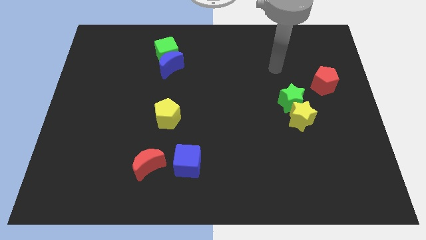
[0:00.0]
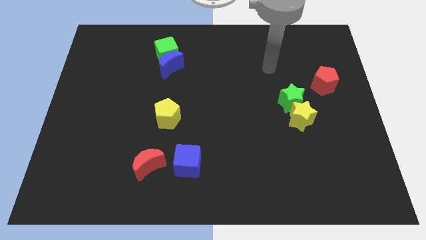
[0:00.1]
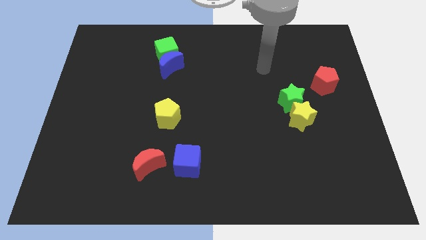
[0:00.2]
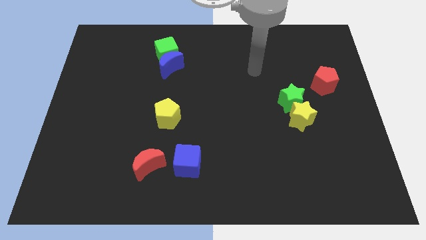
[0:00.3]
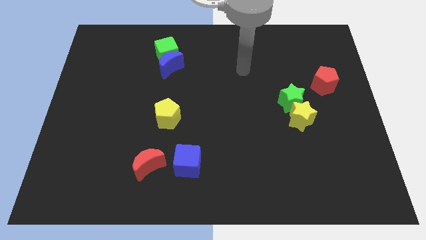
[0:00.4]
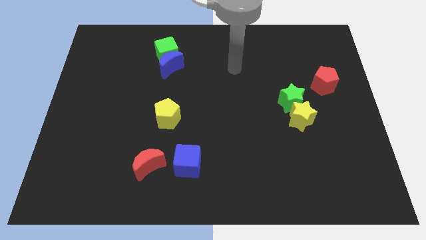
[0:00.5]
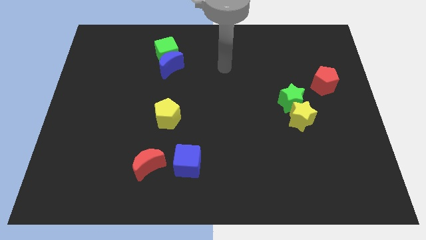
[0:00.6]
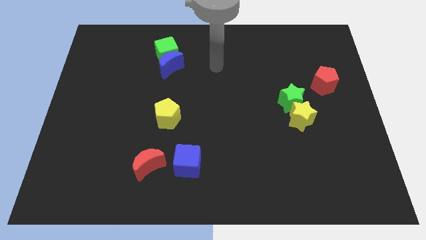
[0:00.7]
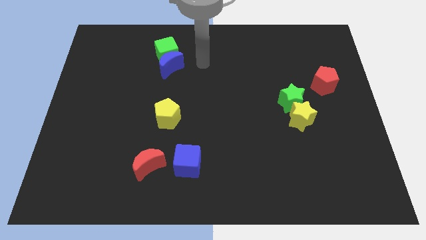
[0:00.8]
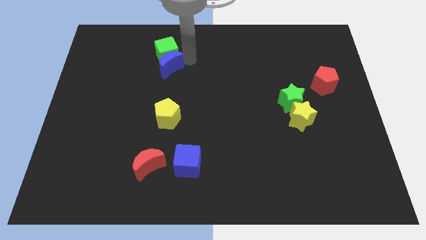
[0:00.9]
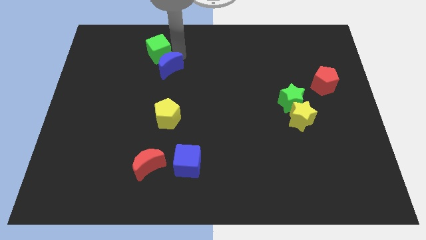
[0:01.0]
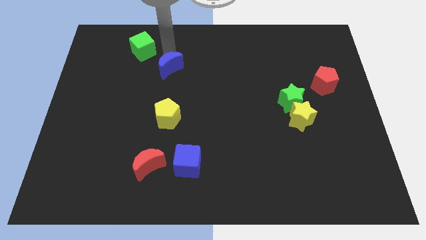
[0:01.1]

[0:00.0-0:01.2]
separate the blue moon from the green cube

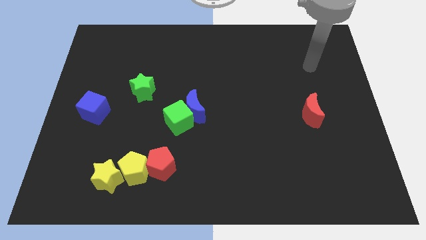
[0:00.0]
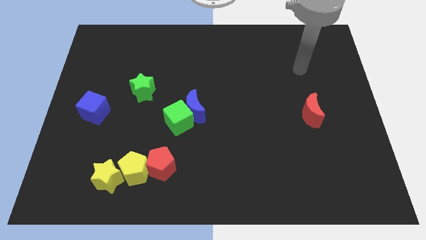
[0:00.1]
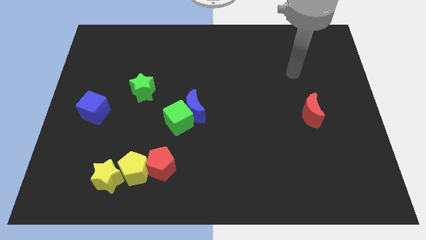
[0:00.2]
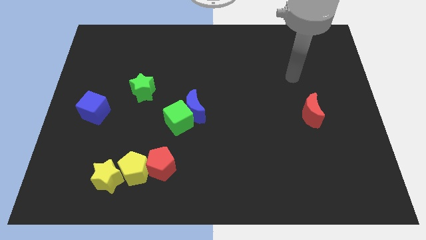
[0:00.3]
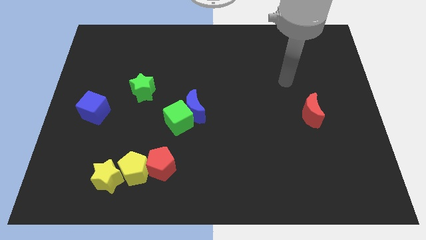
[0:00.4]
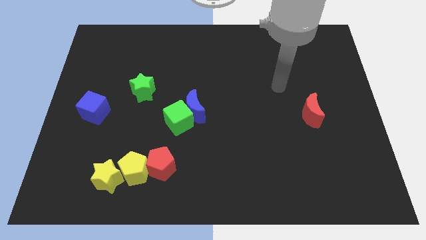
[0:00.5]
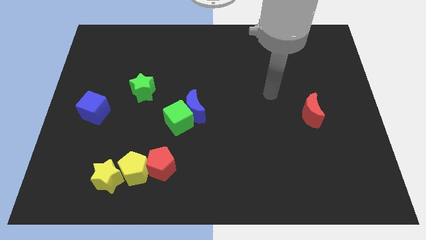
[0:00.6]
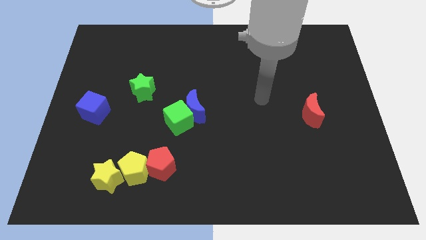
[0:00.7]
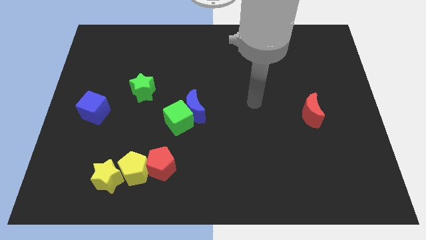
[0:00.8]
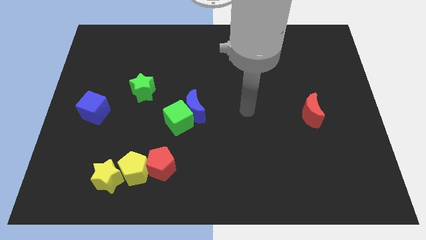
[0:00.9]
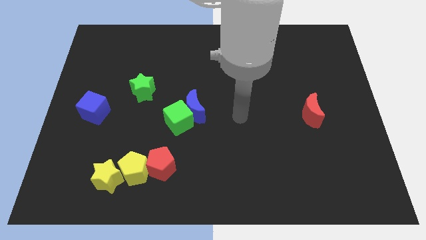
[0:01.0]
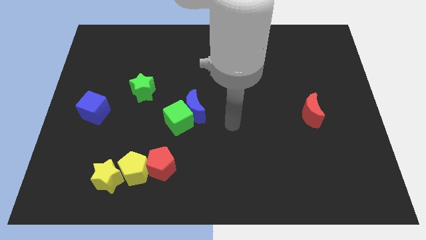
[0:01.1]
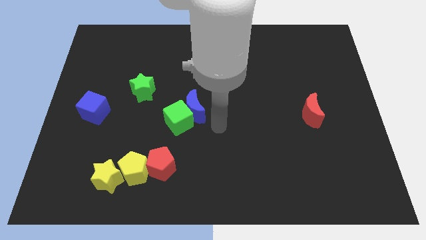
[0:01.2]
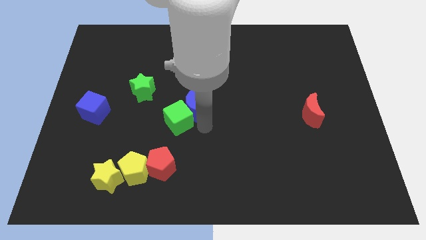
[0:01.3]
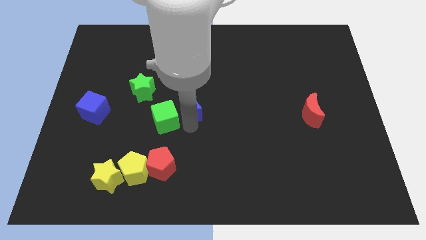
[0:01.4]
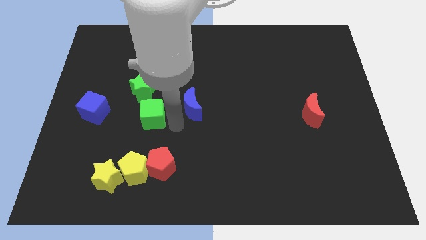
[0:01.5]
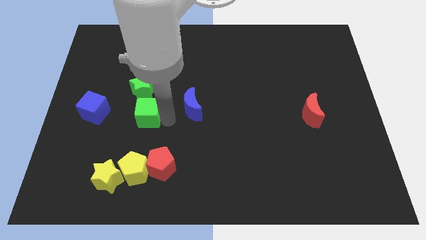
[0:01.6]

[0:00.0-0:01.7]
pull the blue moon apart from the green cube

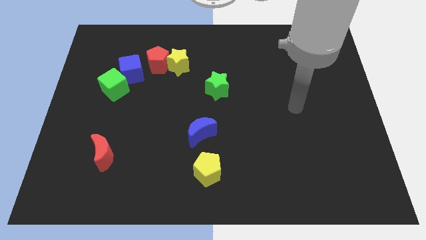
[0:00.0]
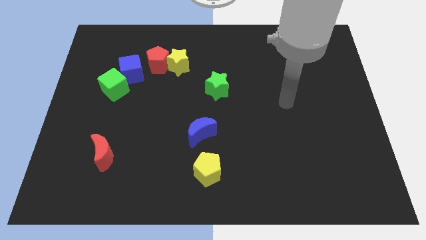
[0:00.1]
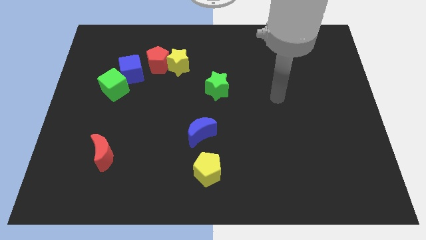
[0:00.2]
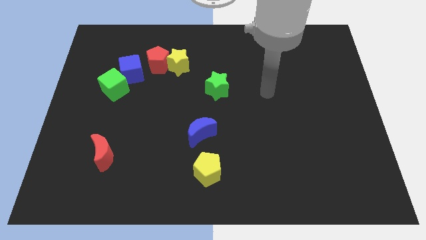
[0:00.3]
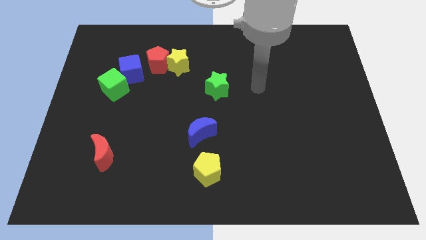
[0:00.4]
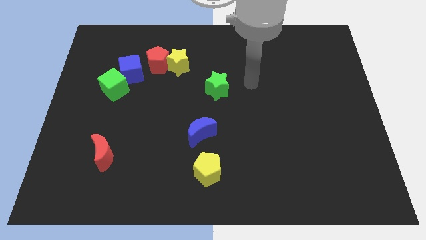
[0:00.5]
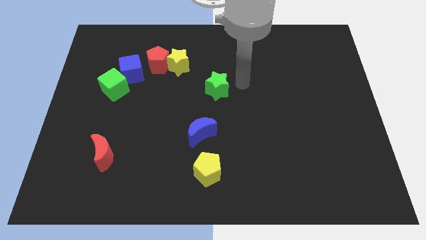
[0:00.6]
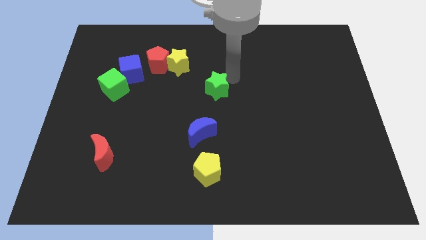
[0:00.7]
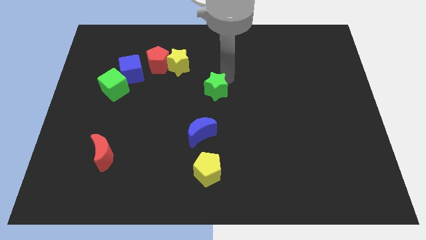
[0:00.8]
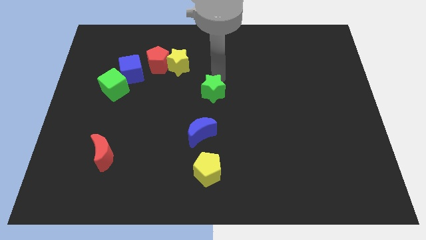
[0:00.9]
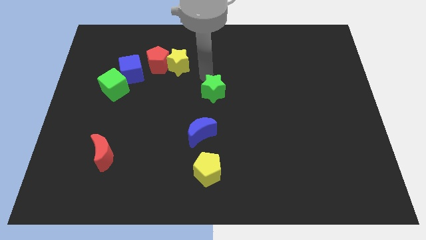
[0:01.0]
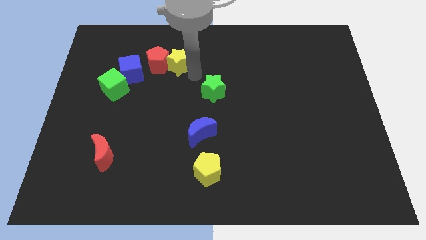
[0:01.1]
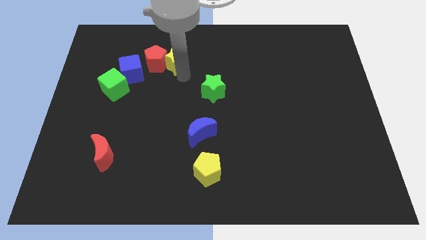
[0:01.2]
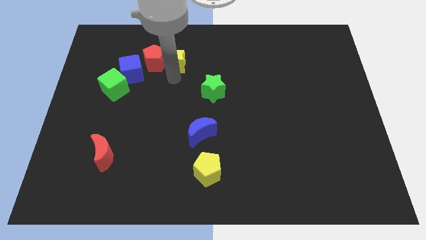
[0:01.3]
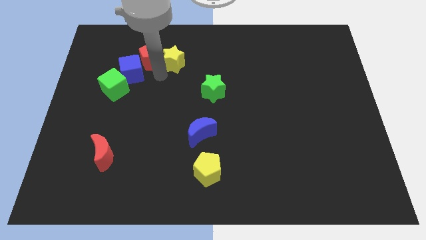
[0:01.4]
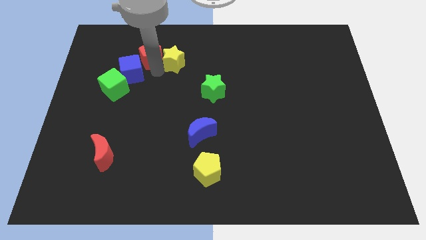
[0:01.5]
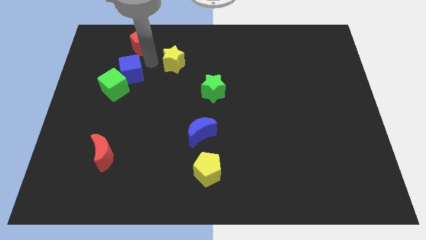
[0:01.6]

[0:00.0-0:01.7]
pull the yellow star apart from the red pentagon

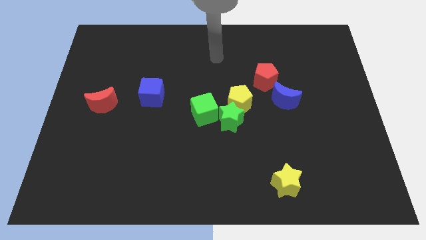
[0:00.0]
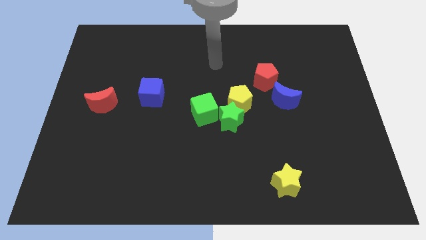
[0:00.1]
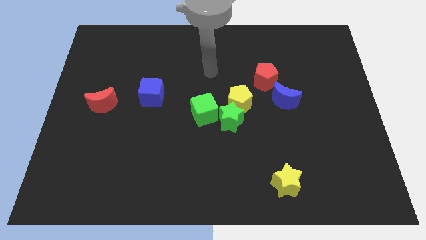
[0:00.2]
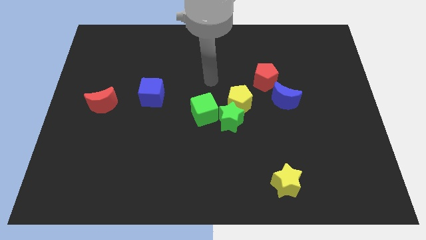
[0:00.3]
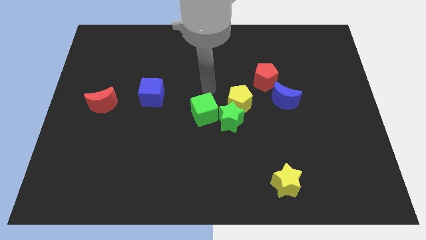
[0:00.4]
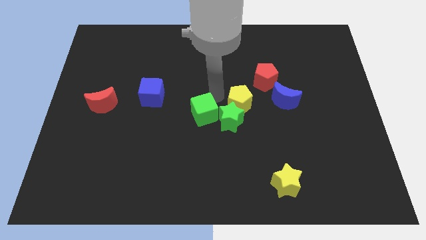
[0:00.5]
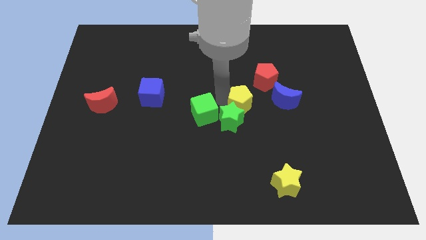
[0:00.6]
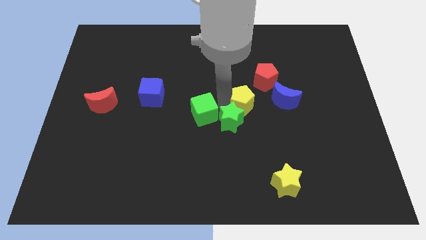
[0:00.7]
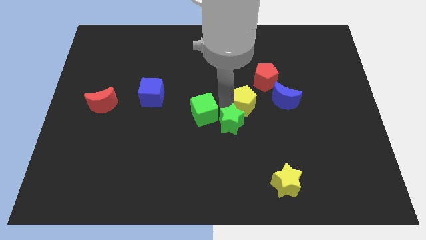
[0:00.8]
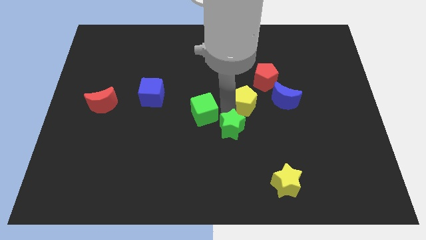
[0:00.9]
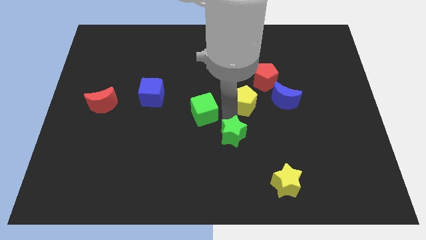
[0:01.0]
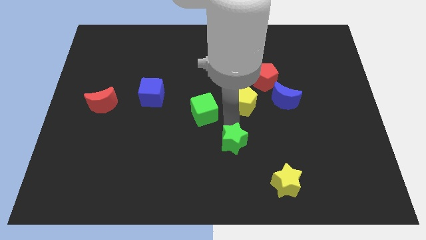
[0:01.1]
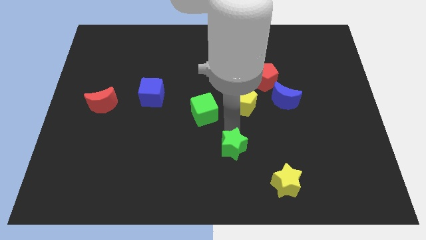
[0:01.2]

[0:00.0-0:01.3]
pull the green star apart from the yellow pentagon and green cube

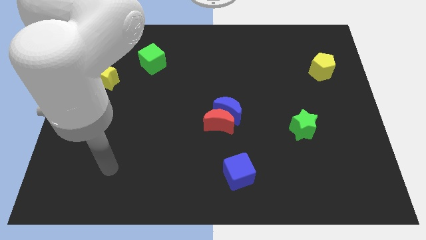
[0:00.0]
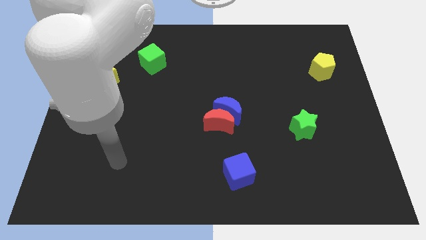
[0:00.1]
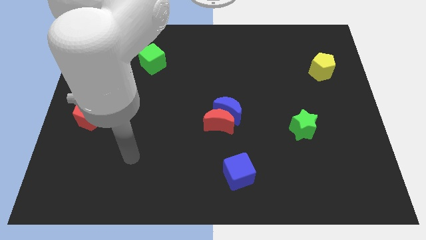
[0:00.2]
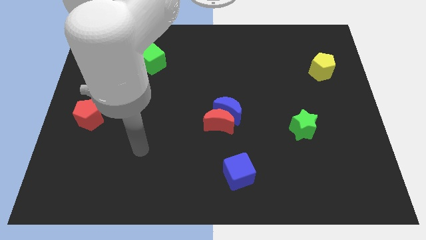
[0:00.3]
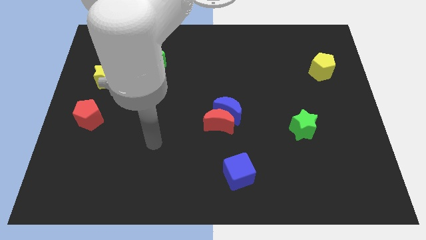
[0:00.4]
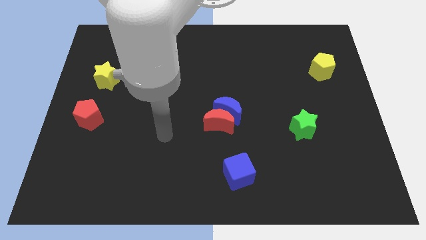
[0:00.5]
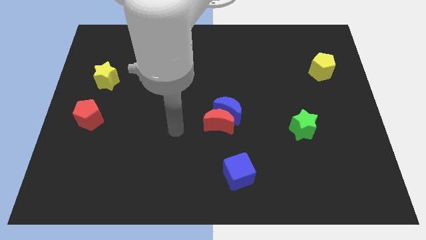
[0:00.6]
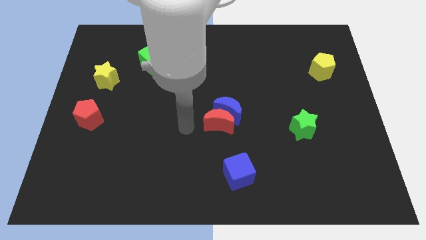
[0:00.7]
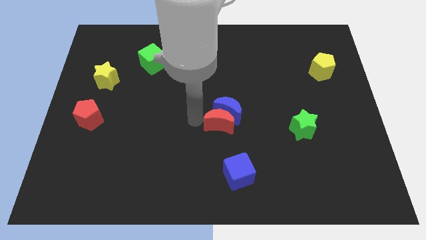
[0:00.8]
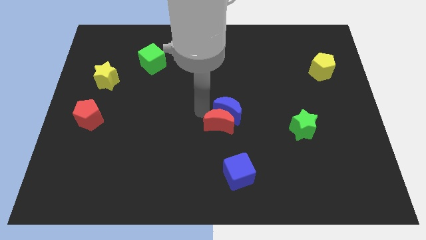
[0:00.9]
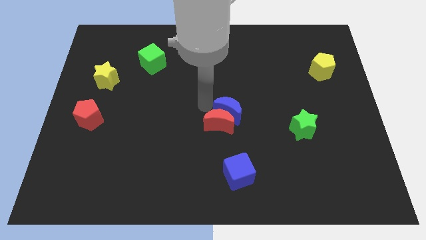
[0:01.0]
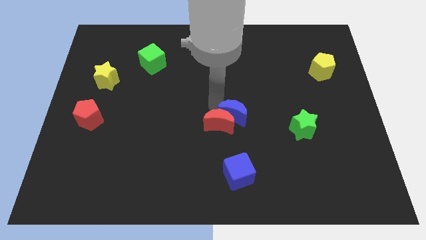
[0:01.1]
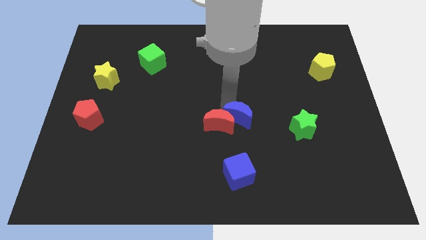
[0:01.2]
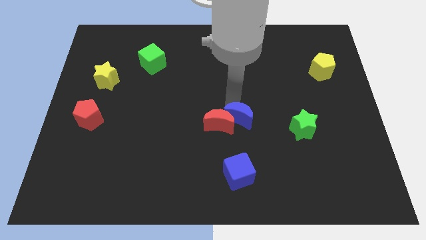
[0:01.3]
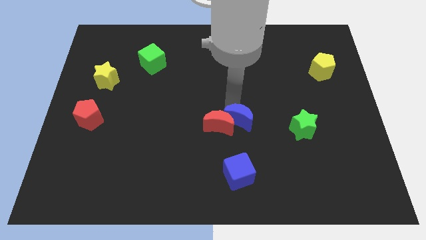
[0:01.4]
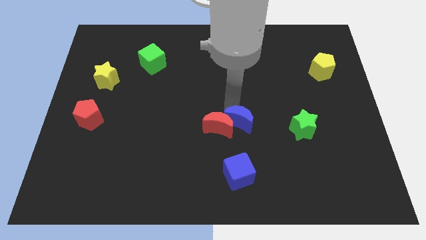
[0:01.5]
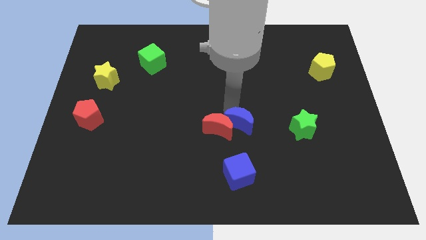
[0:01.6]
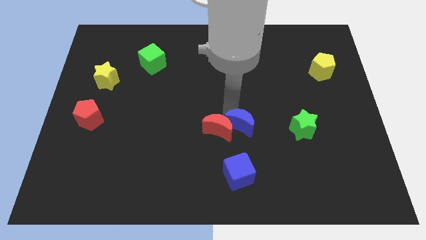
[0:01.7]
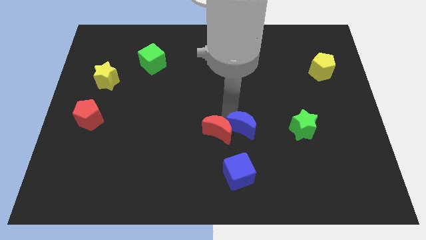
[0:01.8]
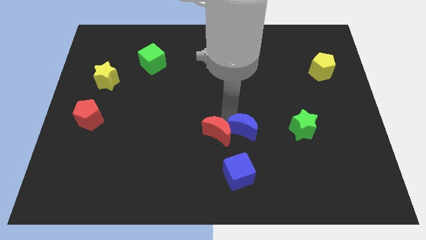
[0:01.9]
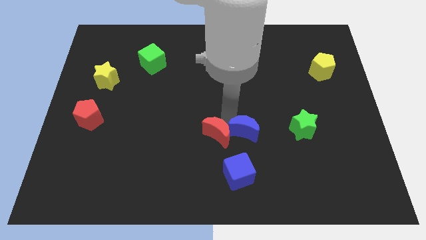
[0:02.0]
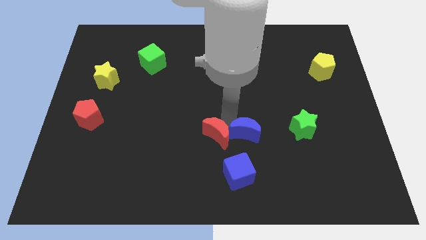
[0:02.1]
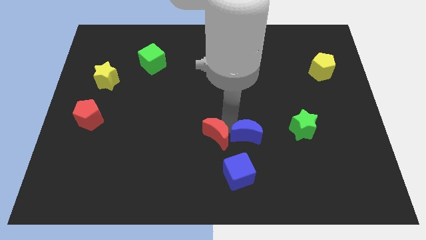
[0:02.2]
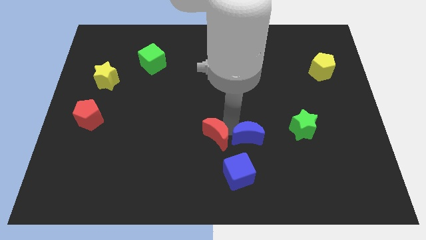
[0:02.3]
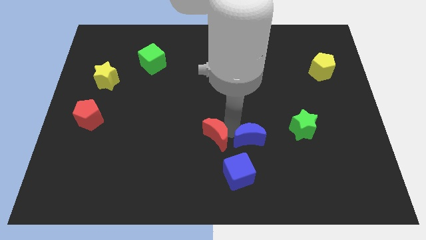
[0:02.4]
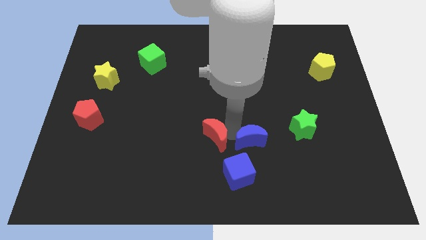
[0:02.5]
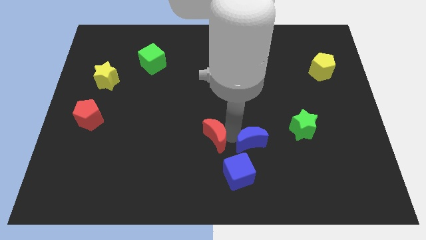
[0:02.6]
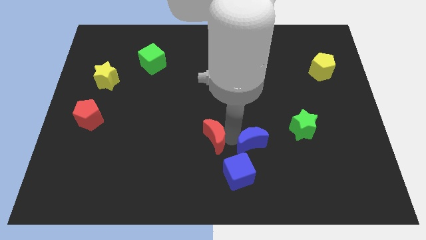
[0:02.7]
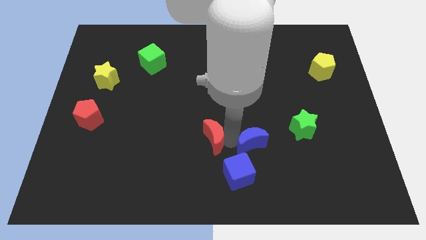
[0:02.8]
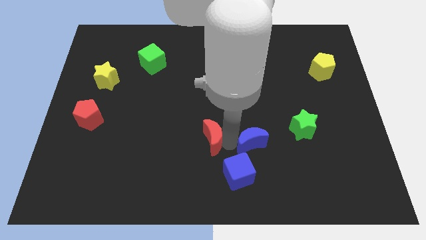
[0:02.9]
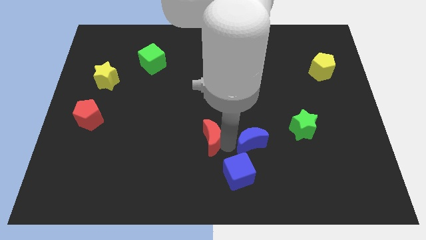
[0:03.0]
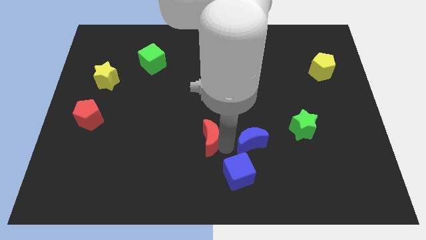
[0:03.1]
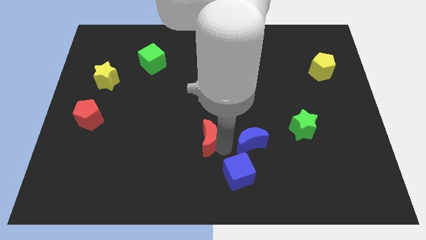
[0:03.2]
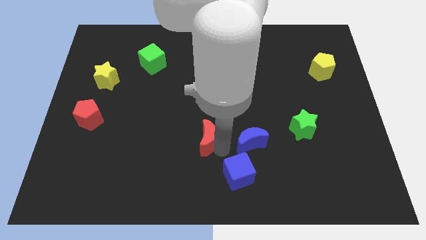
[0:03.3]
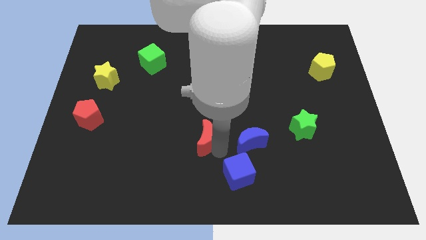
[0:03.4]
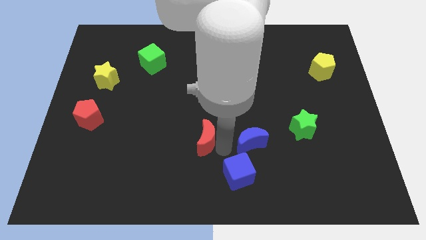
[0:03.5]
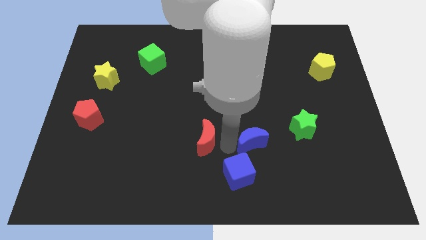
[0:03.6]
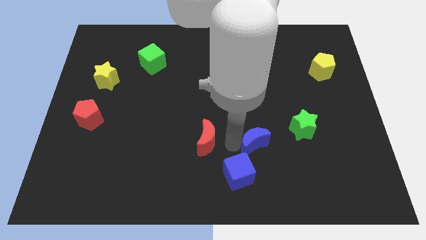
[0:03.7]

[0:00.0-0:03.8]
move the red moon away from the blue moon
